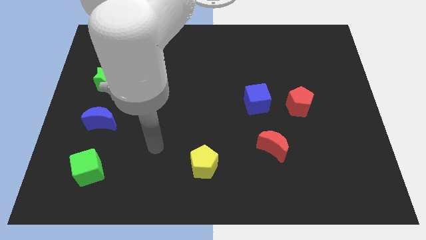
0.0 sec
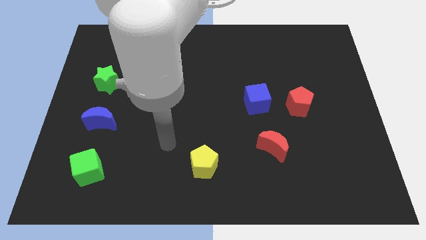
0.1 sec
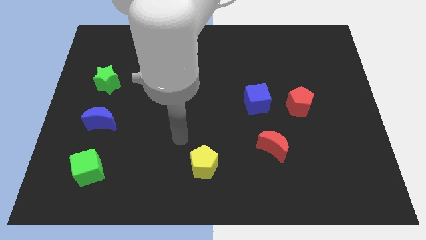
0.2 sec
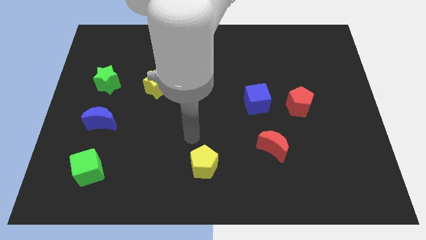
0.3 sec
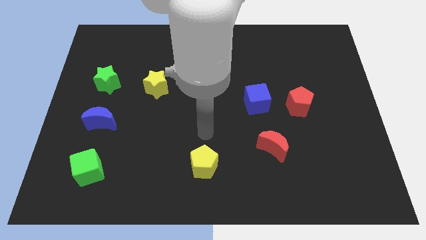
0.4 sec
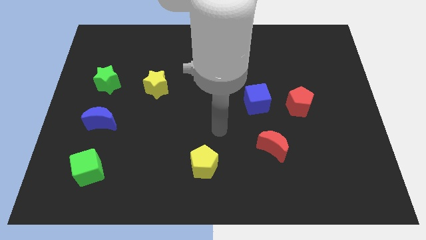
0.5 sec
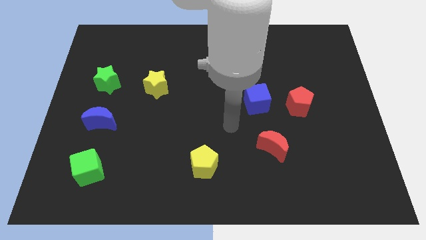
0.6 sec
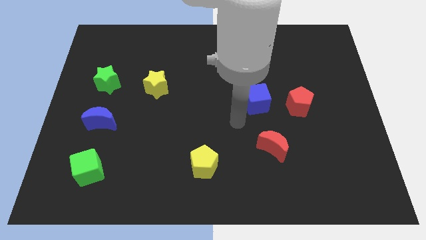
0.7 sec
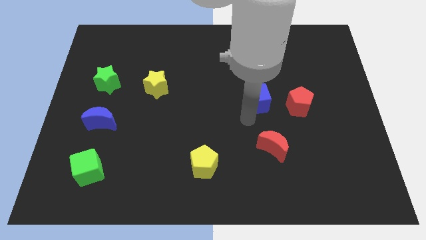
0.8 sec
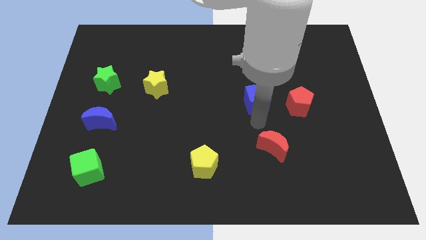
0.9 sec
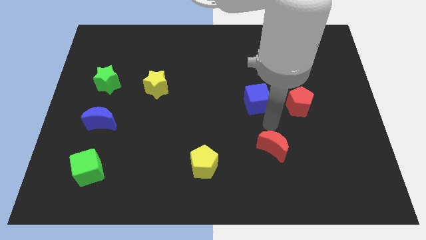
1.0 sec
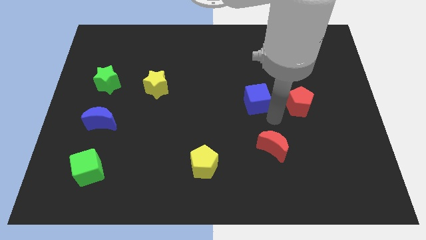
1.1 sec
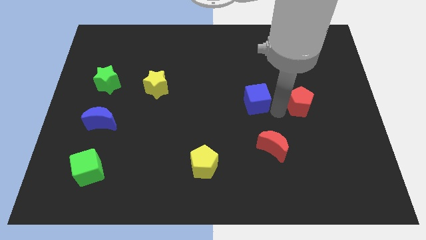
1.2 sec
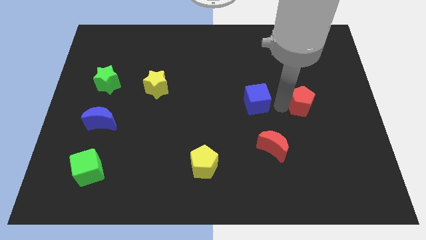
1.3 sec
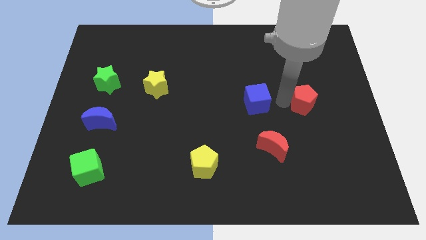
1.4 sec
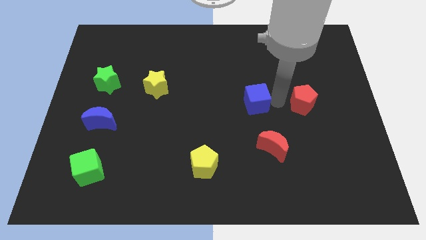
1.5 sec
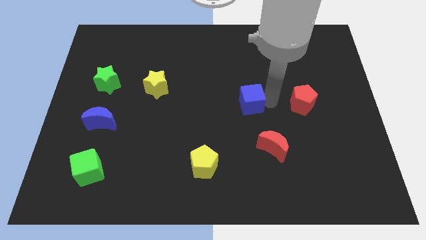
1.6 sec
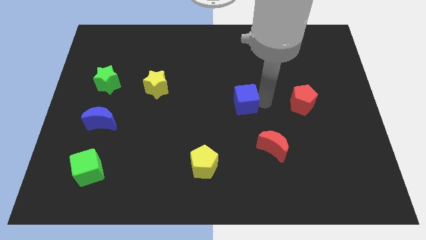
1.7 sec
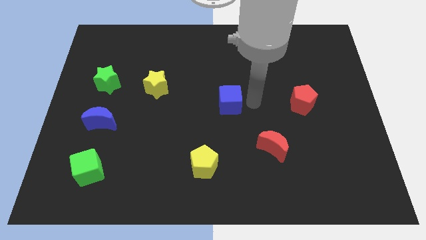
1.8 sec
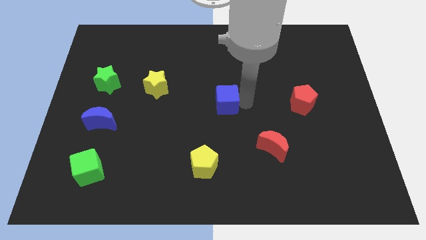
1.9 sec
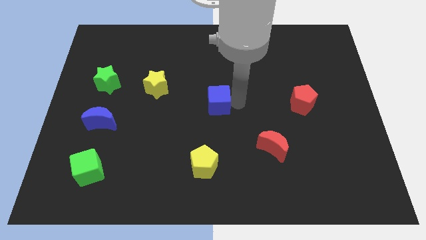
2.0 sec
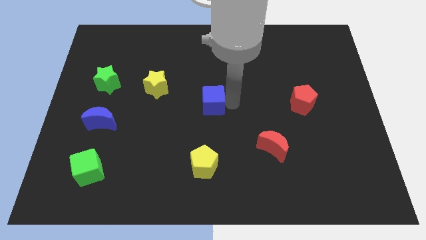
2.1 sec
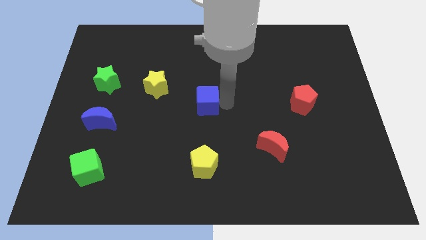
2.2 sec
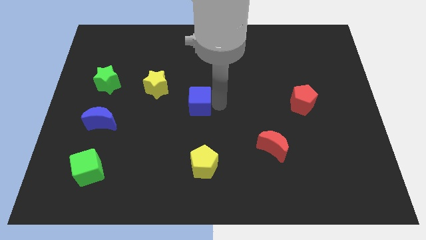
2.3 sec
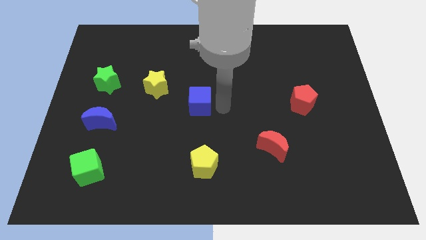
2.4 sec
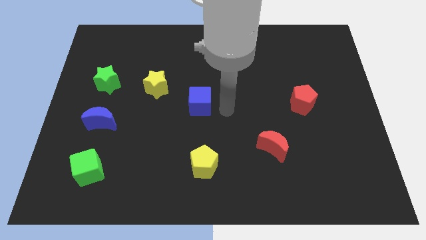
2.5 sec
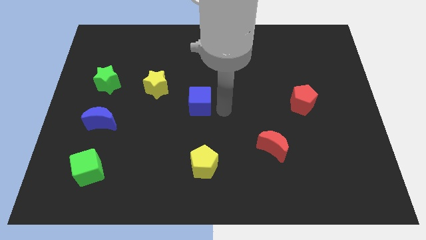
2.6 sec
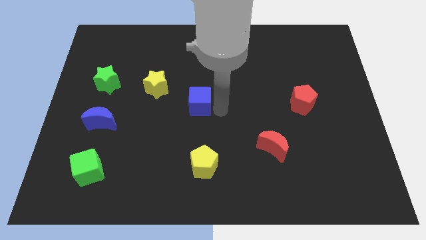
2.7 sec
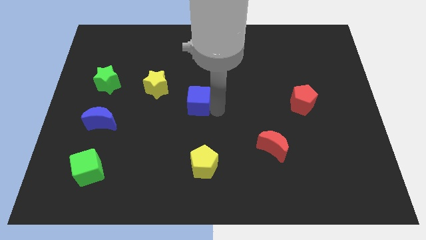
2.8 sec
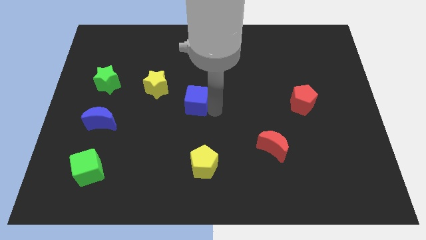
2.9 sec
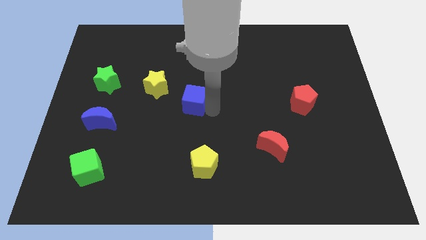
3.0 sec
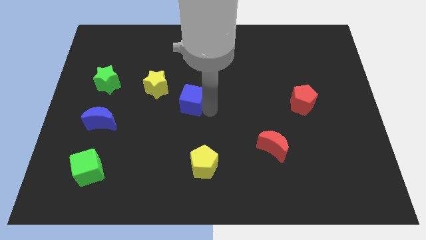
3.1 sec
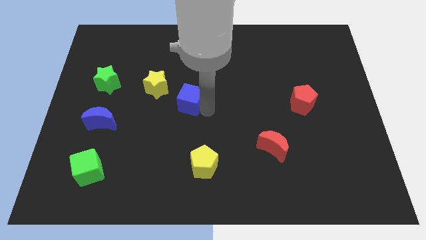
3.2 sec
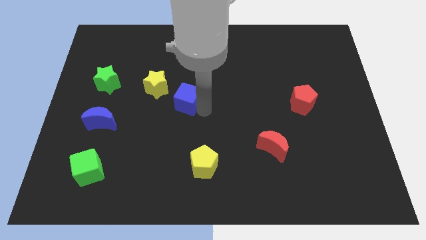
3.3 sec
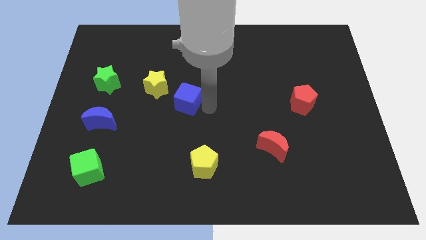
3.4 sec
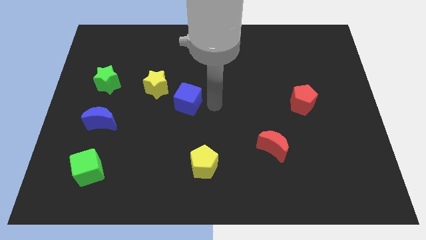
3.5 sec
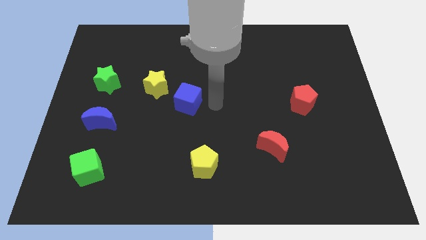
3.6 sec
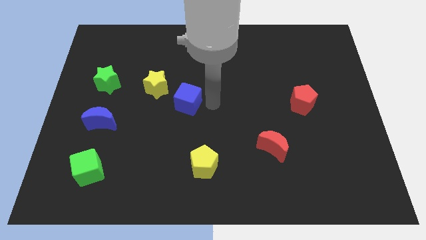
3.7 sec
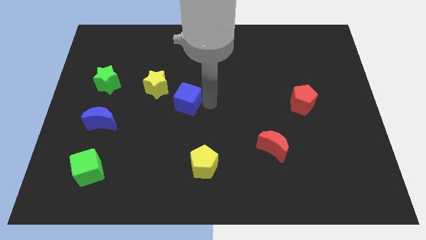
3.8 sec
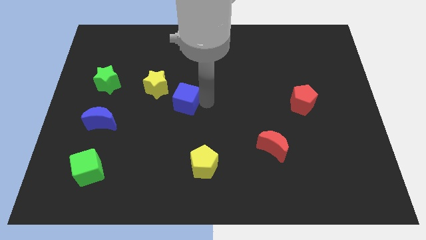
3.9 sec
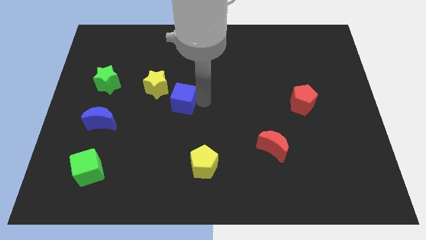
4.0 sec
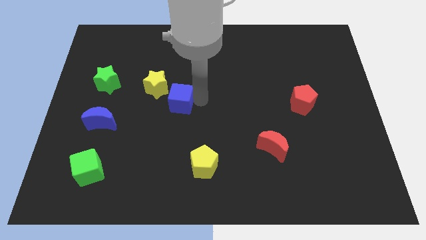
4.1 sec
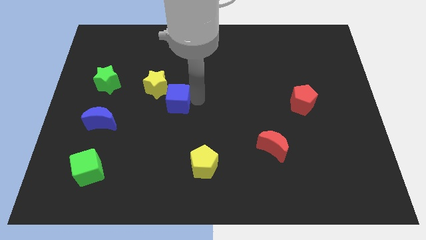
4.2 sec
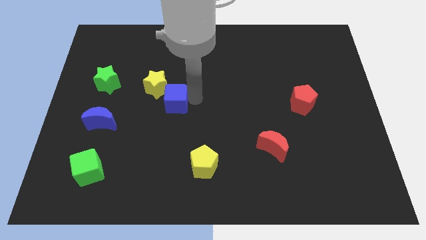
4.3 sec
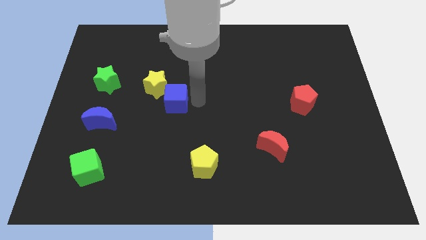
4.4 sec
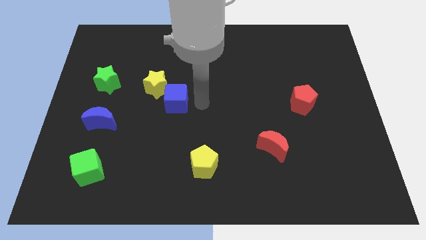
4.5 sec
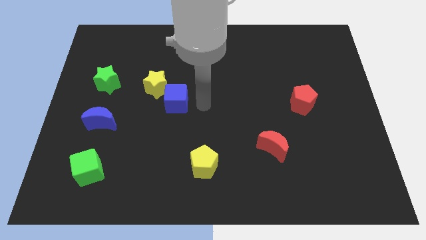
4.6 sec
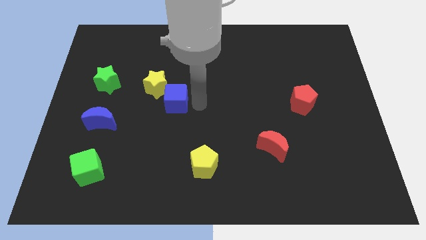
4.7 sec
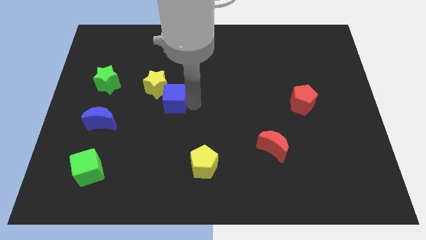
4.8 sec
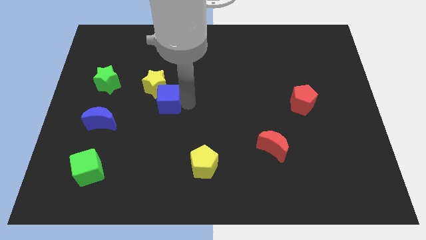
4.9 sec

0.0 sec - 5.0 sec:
slide the blue cube left

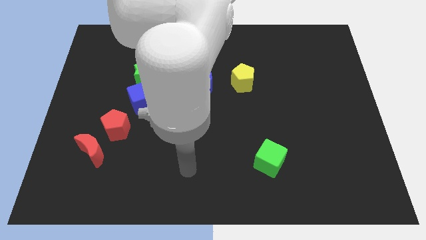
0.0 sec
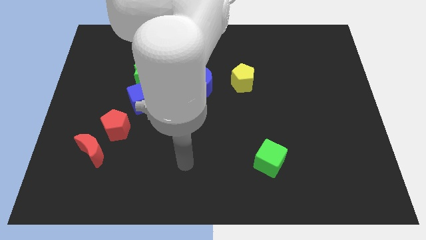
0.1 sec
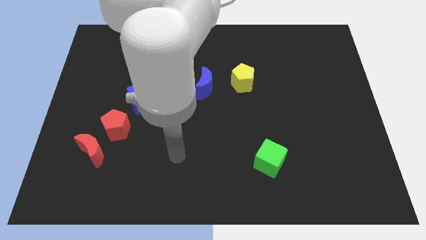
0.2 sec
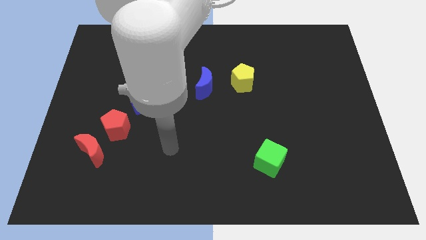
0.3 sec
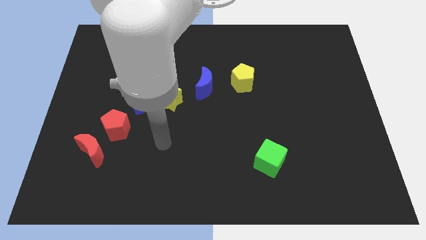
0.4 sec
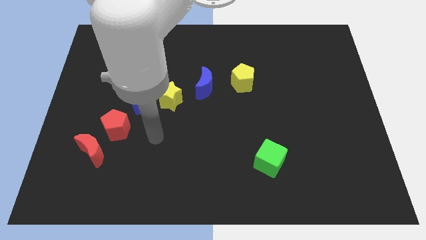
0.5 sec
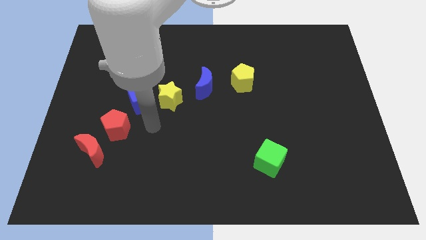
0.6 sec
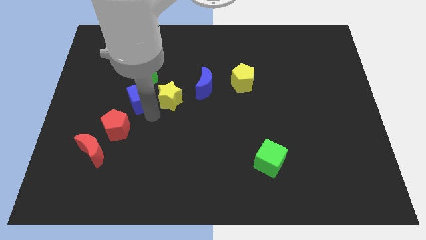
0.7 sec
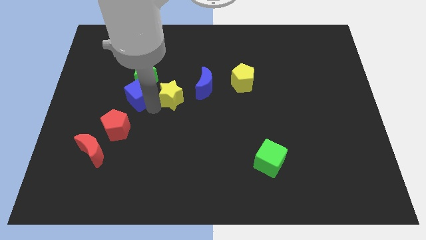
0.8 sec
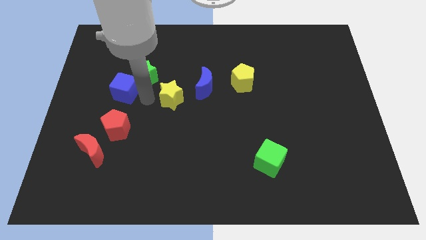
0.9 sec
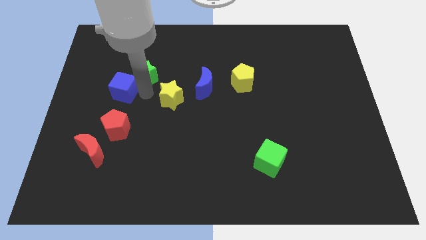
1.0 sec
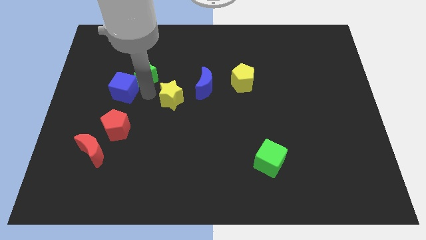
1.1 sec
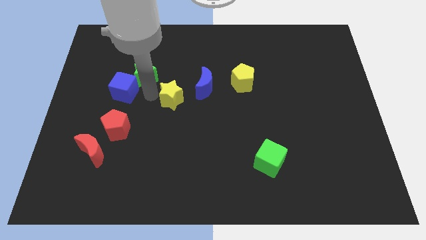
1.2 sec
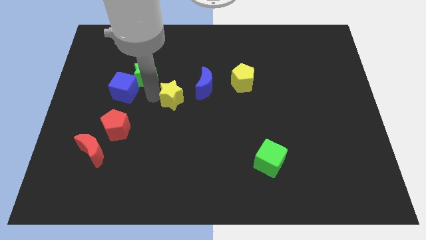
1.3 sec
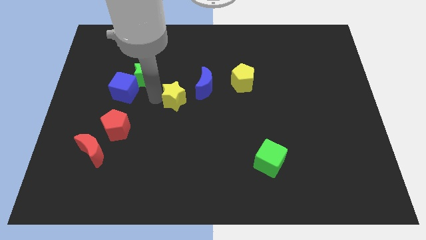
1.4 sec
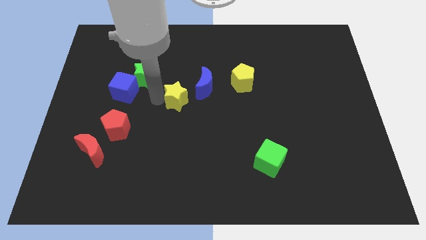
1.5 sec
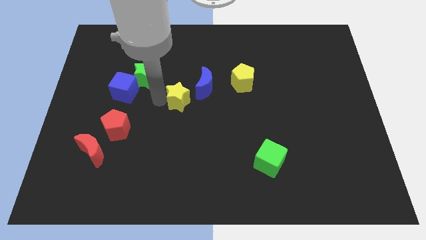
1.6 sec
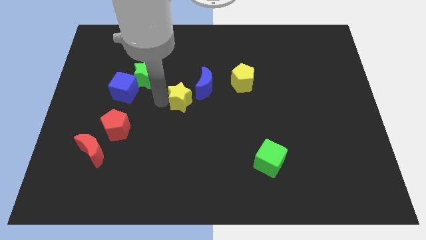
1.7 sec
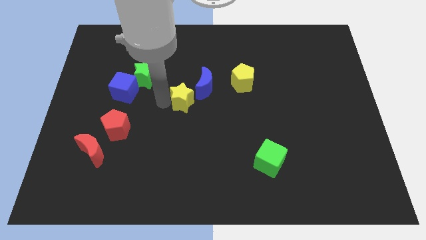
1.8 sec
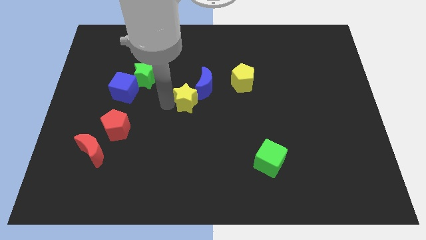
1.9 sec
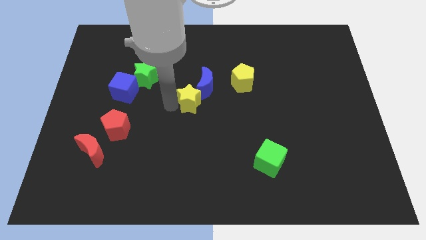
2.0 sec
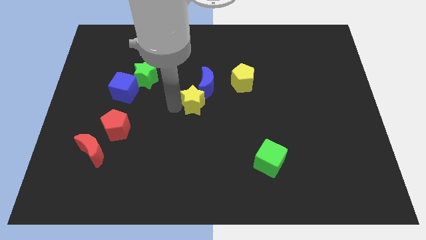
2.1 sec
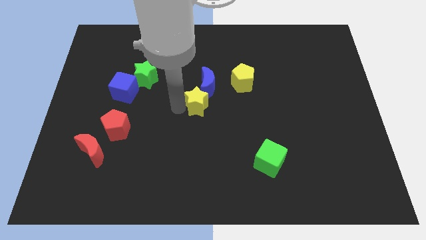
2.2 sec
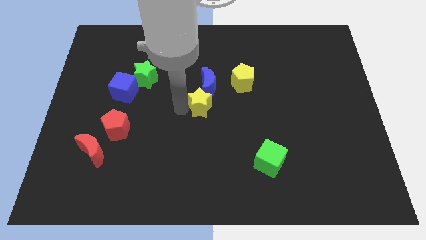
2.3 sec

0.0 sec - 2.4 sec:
push the yellow star a little bit right

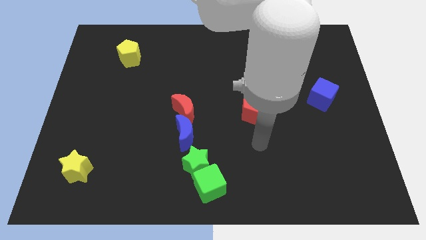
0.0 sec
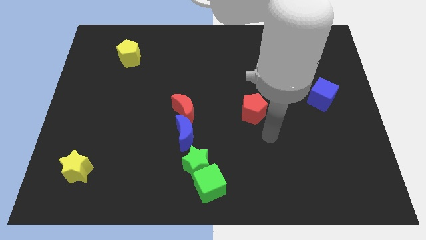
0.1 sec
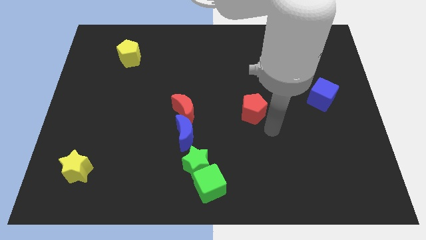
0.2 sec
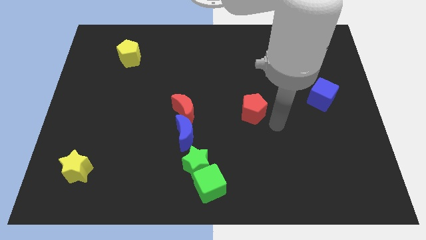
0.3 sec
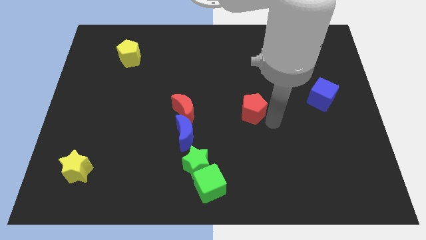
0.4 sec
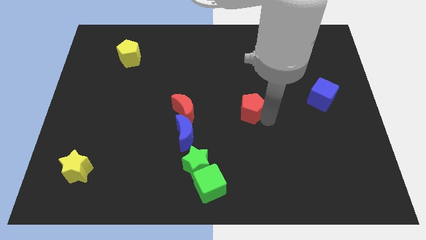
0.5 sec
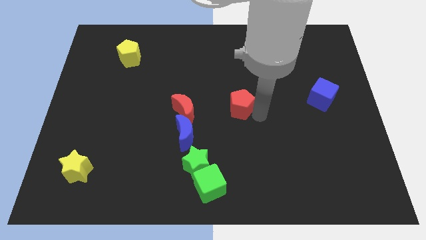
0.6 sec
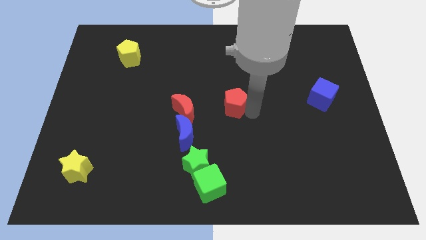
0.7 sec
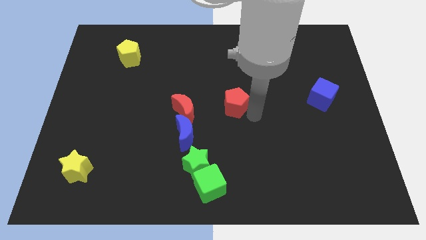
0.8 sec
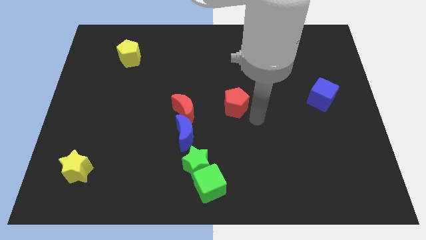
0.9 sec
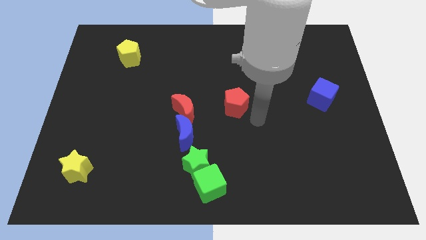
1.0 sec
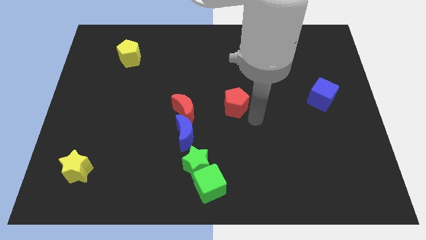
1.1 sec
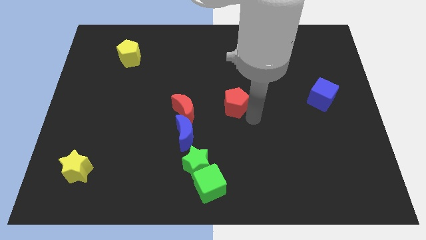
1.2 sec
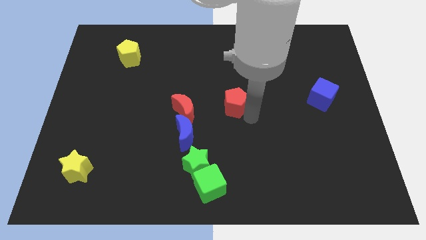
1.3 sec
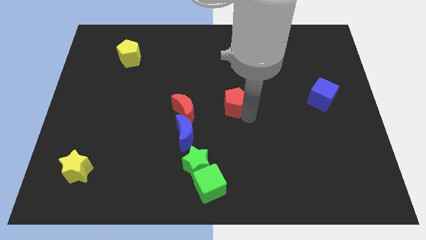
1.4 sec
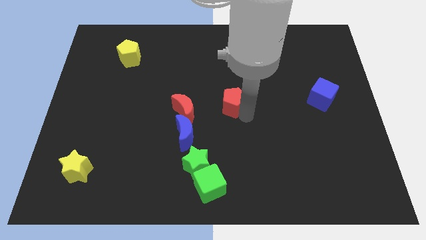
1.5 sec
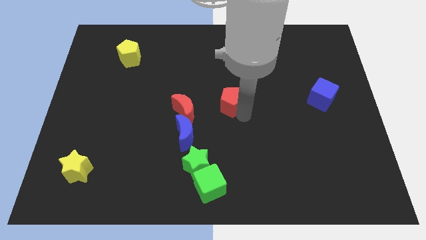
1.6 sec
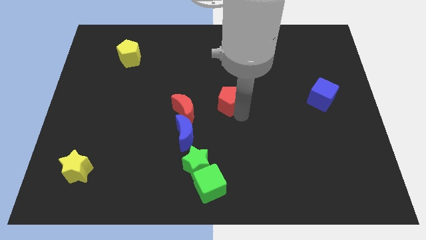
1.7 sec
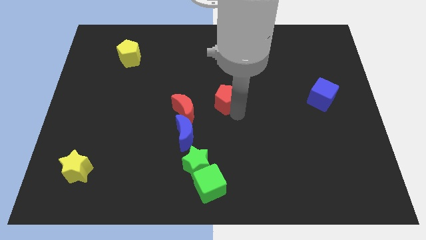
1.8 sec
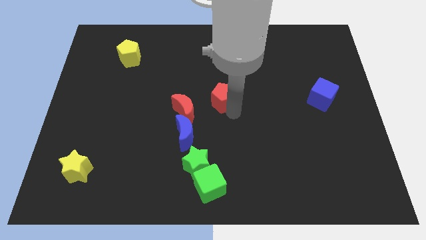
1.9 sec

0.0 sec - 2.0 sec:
slightly slide the red pentagon upwards and to the left diagonally
